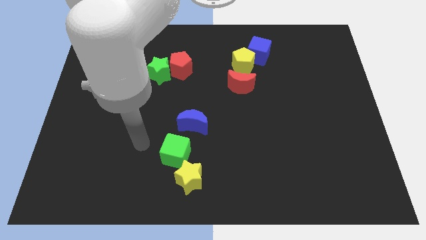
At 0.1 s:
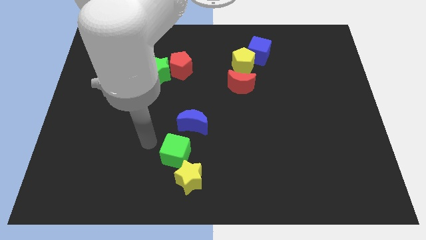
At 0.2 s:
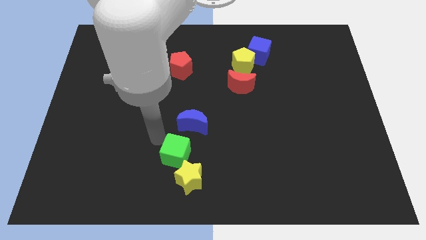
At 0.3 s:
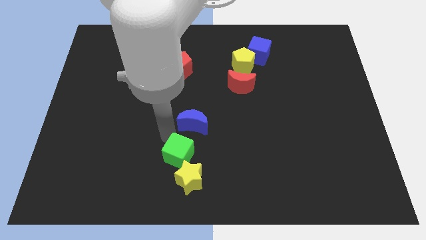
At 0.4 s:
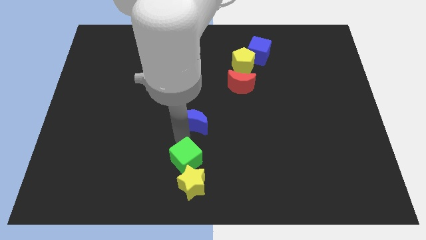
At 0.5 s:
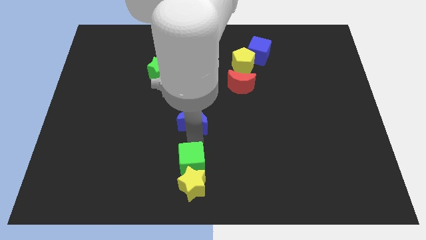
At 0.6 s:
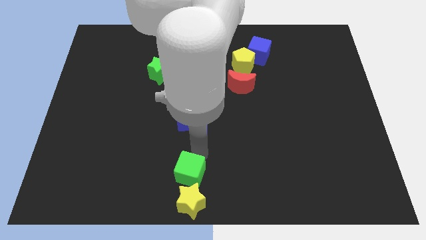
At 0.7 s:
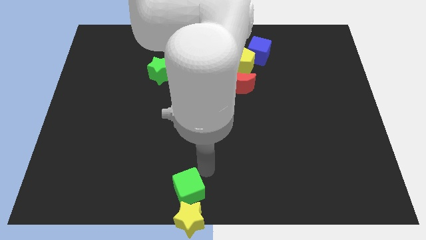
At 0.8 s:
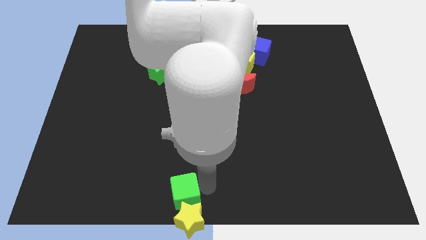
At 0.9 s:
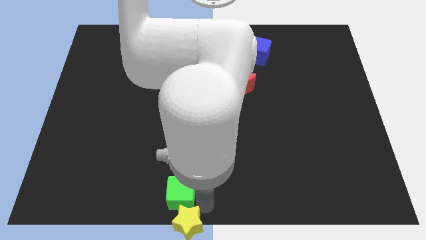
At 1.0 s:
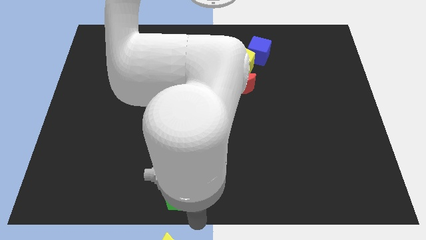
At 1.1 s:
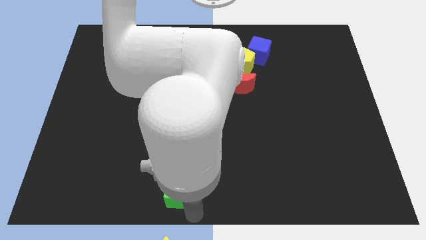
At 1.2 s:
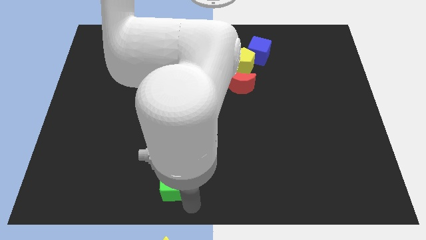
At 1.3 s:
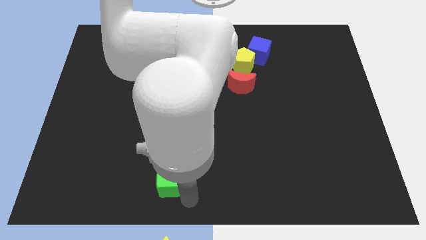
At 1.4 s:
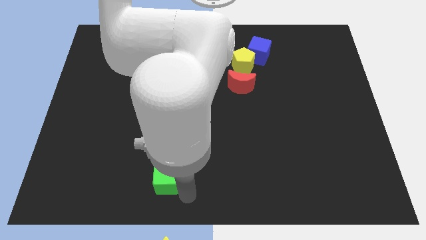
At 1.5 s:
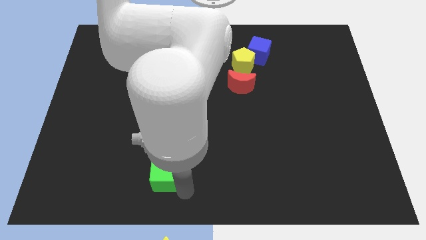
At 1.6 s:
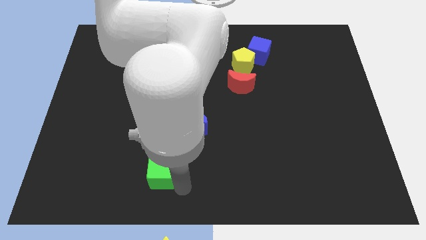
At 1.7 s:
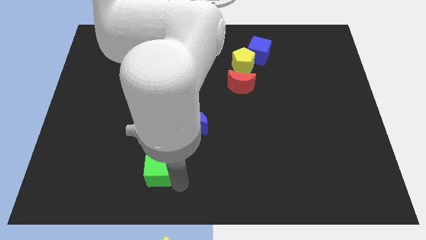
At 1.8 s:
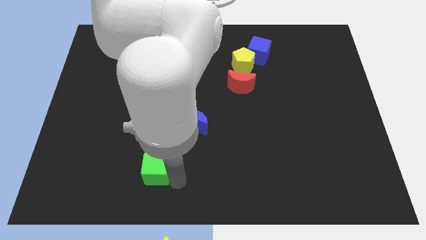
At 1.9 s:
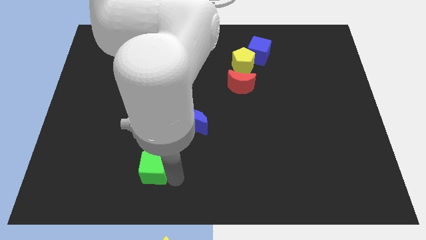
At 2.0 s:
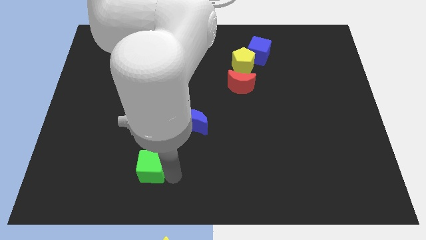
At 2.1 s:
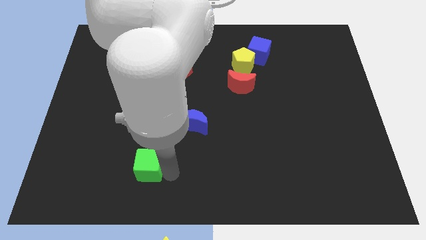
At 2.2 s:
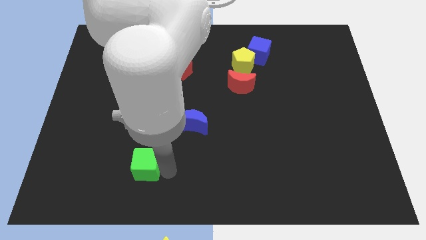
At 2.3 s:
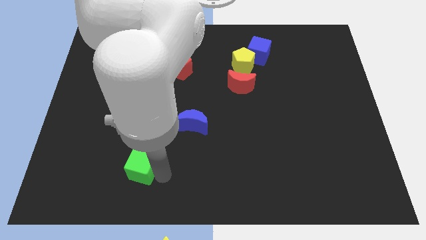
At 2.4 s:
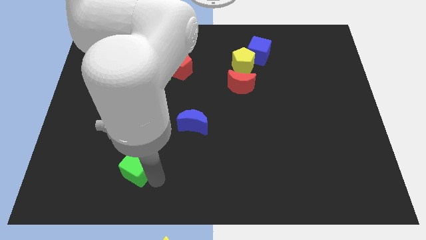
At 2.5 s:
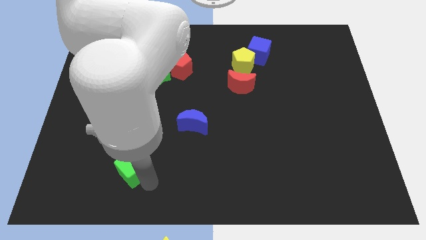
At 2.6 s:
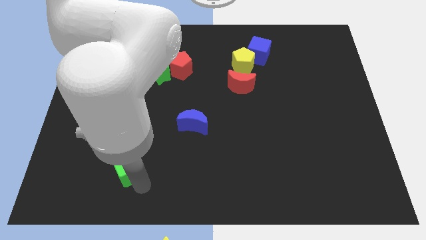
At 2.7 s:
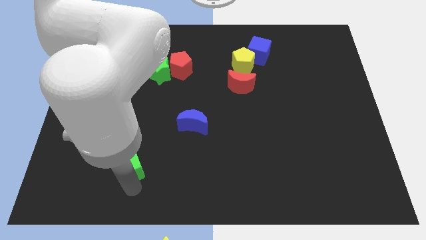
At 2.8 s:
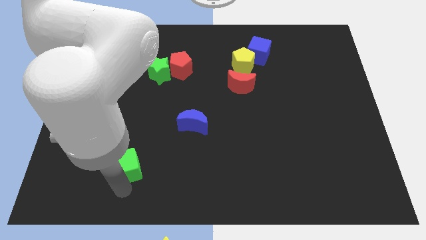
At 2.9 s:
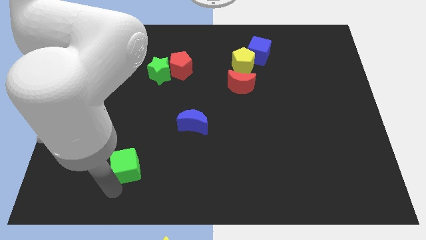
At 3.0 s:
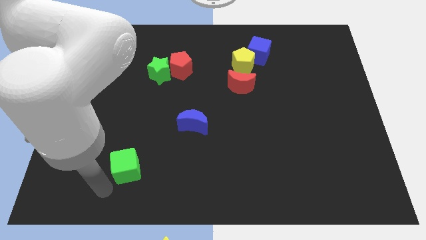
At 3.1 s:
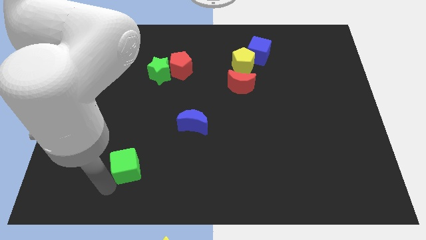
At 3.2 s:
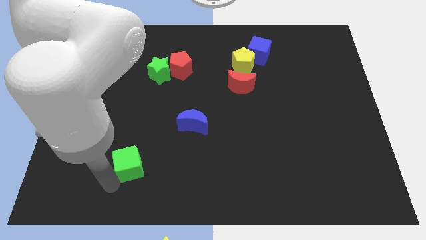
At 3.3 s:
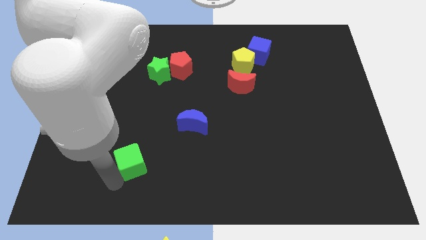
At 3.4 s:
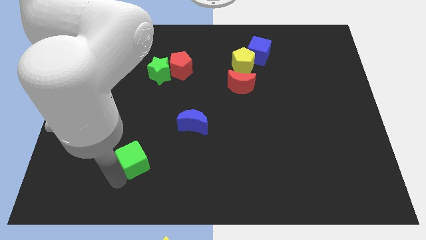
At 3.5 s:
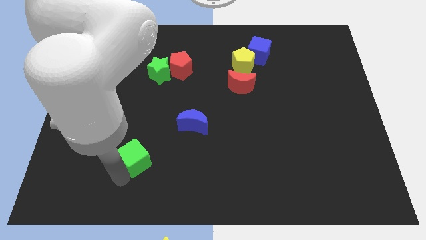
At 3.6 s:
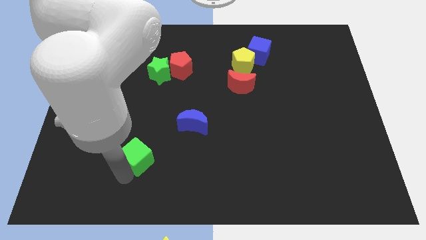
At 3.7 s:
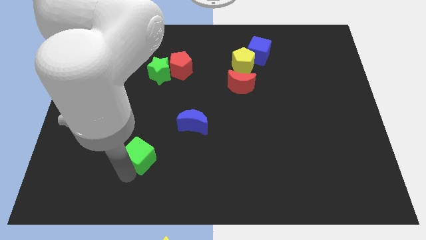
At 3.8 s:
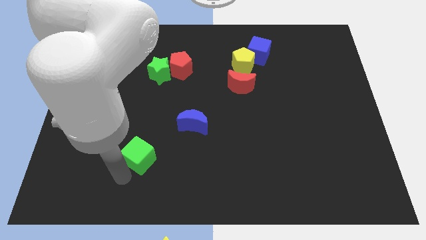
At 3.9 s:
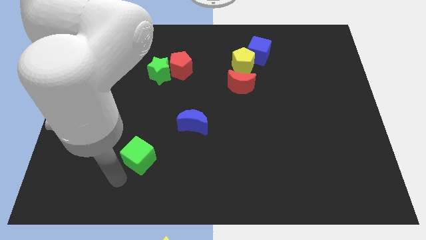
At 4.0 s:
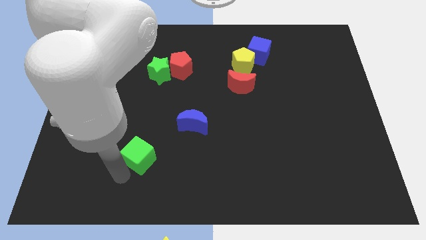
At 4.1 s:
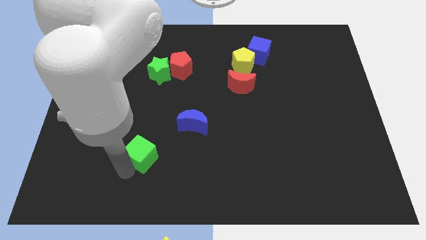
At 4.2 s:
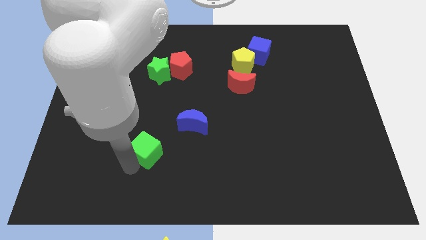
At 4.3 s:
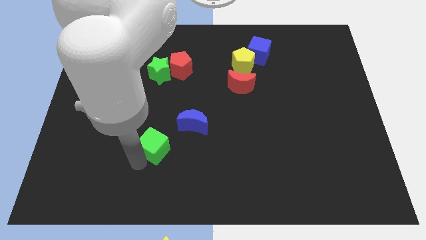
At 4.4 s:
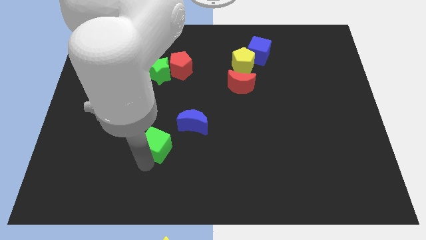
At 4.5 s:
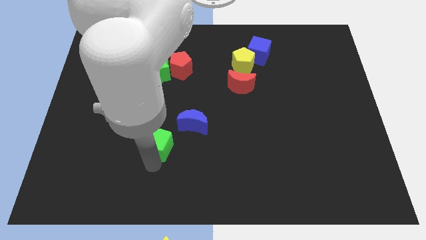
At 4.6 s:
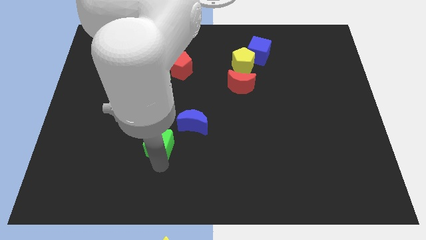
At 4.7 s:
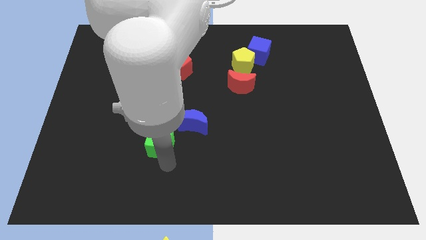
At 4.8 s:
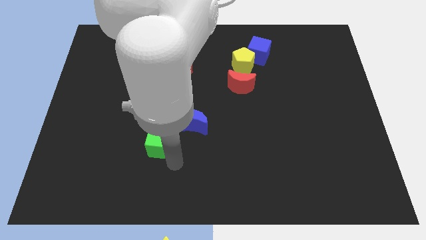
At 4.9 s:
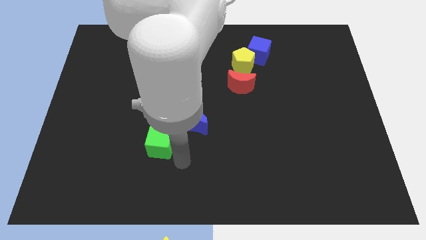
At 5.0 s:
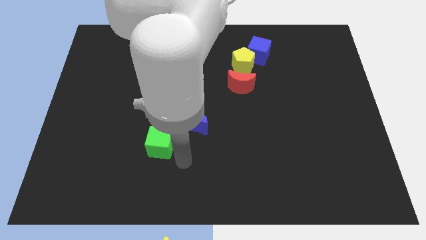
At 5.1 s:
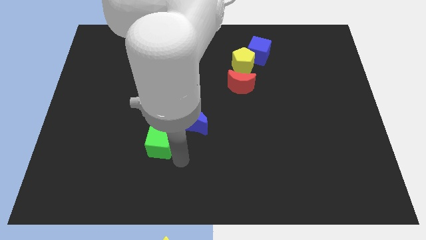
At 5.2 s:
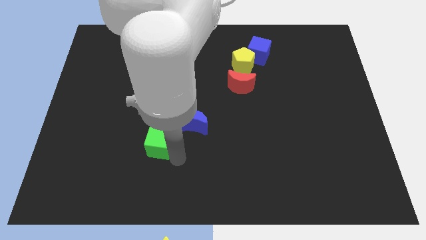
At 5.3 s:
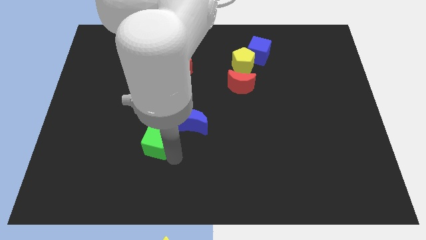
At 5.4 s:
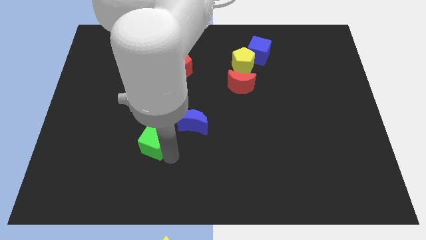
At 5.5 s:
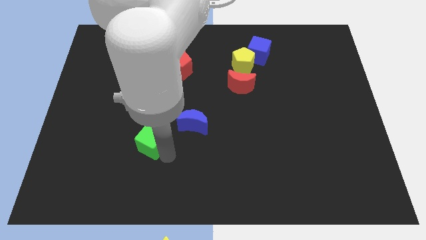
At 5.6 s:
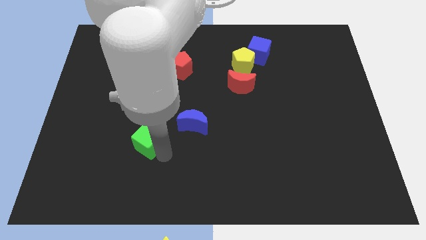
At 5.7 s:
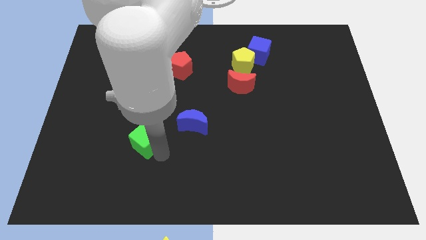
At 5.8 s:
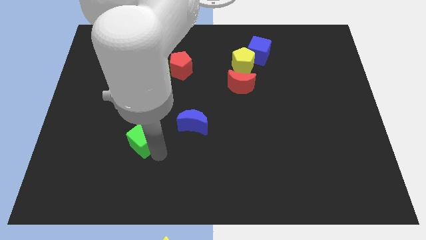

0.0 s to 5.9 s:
slightly move the green cube upwards and left diagonally

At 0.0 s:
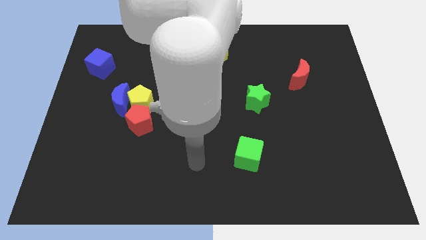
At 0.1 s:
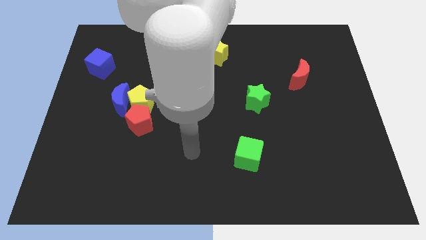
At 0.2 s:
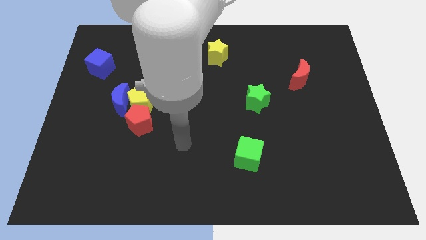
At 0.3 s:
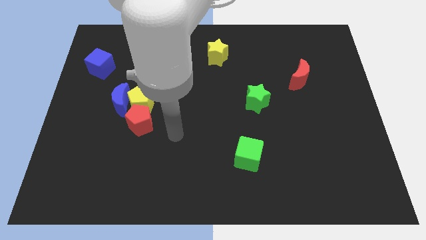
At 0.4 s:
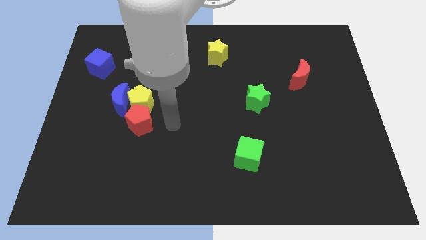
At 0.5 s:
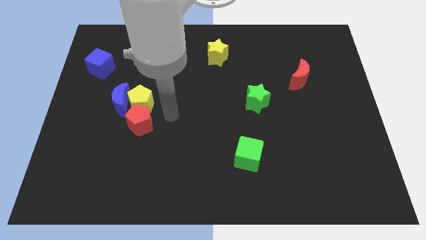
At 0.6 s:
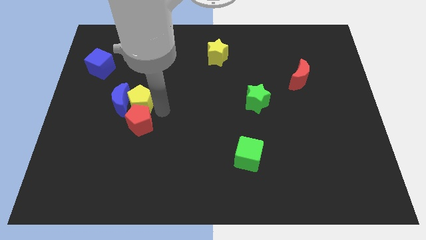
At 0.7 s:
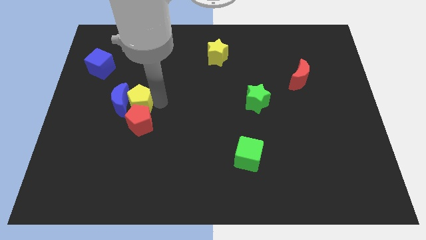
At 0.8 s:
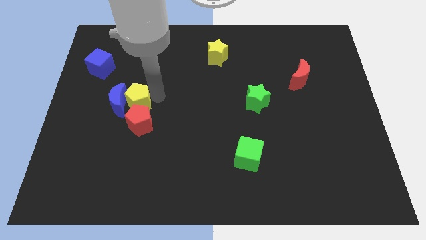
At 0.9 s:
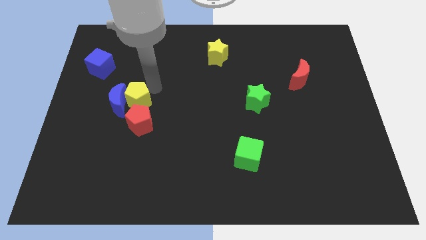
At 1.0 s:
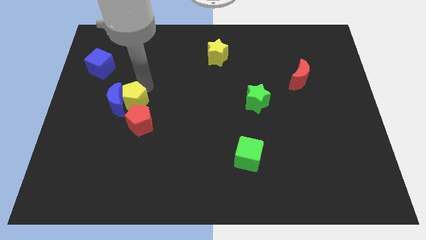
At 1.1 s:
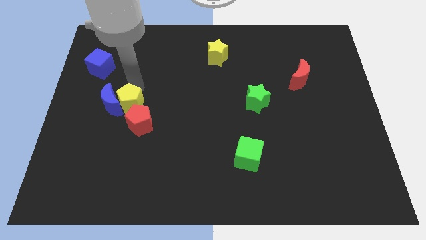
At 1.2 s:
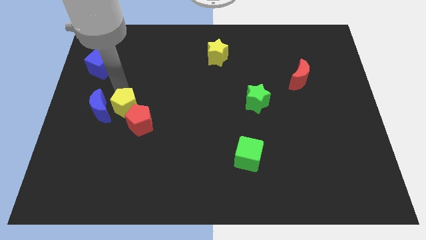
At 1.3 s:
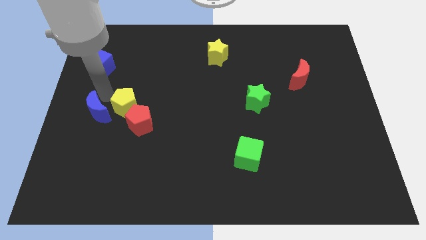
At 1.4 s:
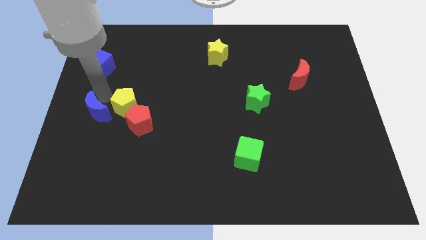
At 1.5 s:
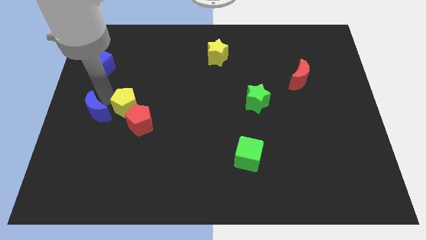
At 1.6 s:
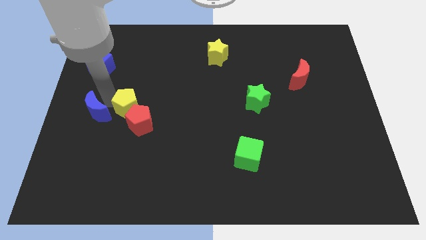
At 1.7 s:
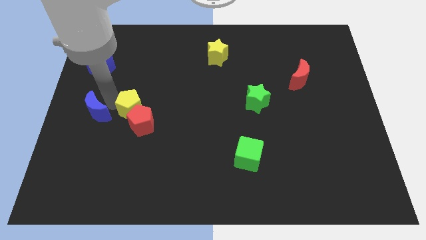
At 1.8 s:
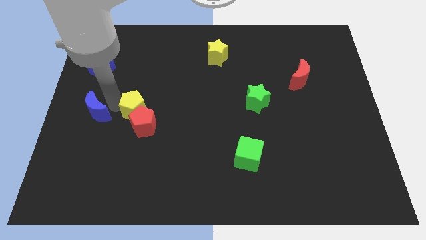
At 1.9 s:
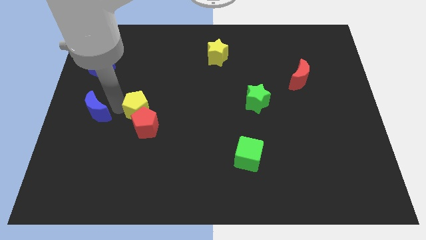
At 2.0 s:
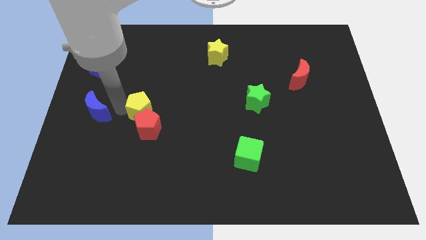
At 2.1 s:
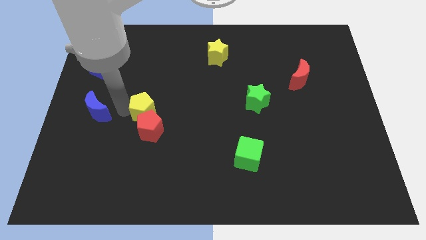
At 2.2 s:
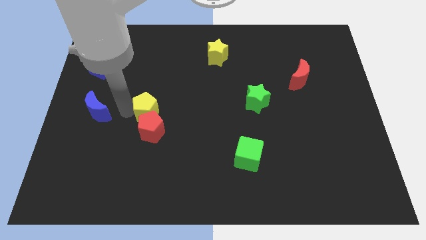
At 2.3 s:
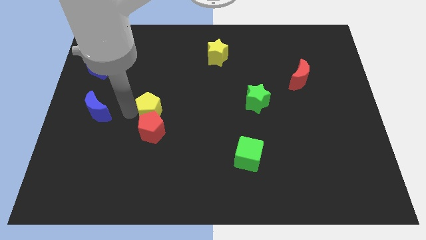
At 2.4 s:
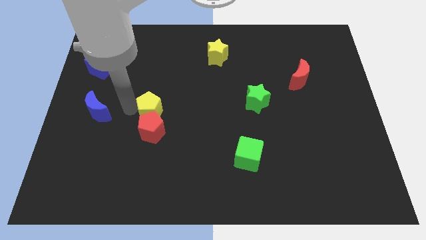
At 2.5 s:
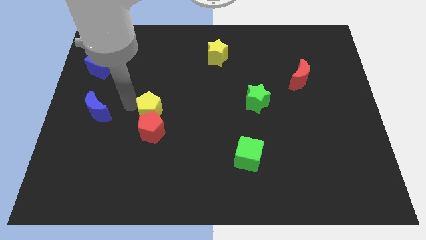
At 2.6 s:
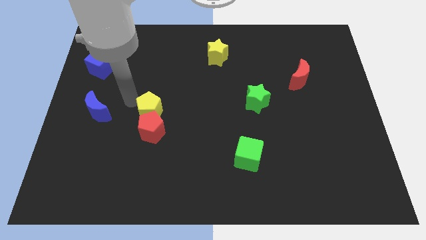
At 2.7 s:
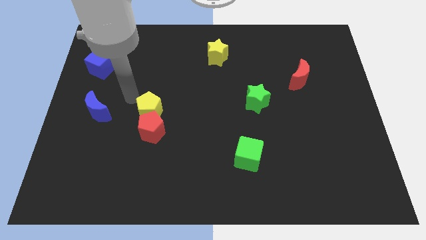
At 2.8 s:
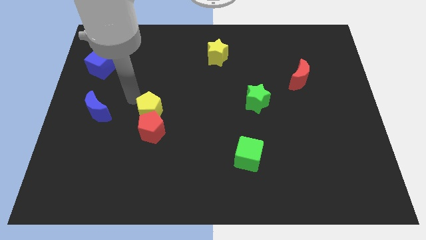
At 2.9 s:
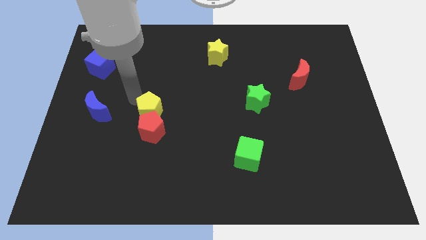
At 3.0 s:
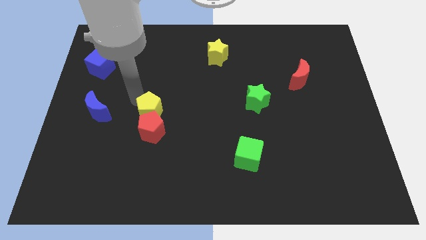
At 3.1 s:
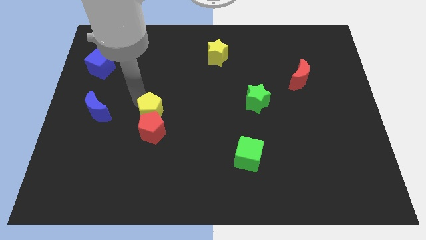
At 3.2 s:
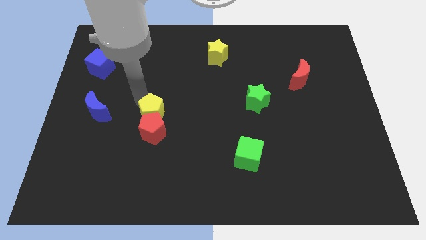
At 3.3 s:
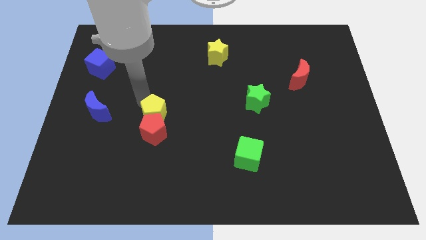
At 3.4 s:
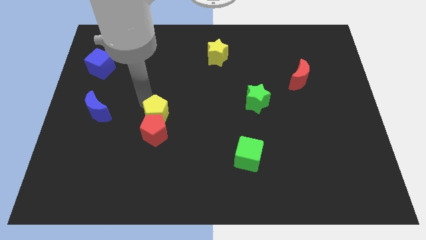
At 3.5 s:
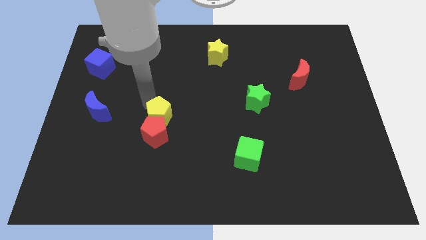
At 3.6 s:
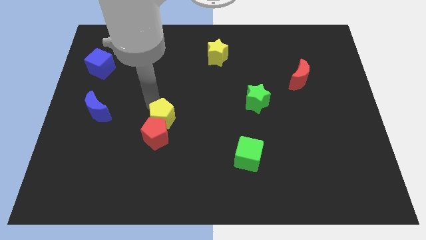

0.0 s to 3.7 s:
slide the yellow pentagon somewhat downwards and to the right diagonally
